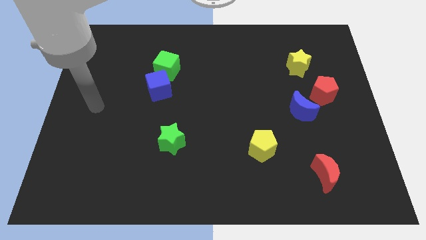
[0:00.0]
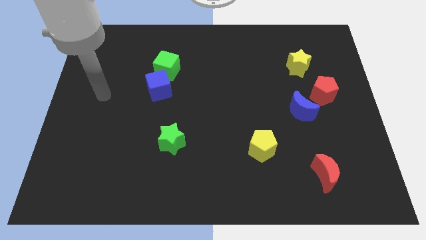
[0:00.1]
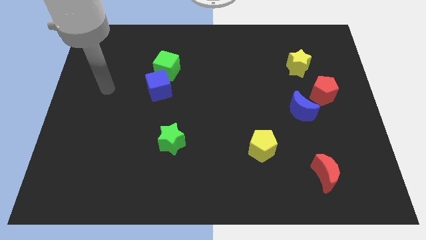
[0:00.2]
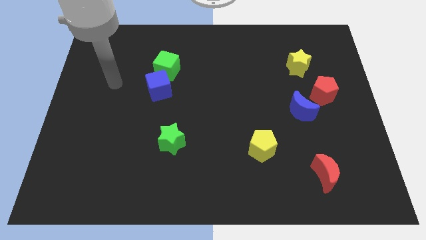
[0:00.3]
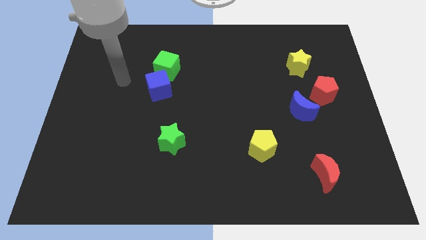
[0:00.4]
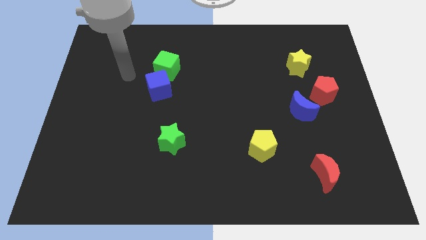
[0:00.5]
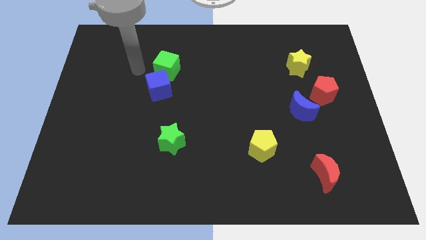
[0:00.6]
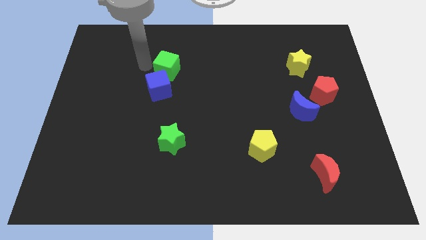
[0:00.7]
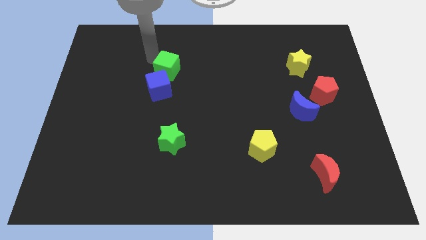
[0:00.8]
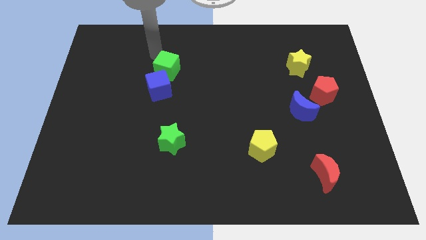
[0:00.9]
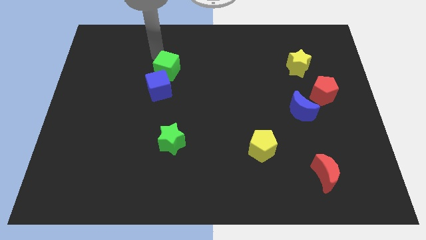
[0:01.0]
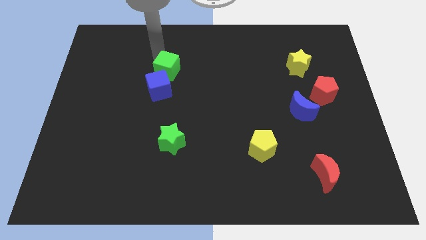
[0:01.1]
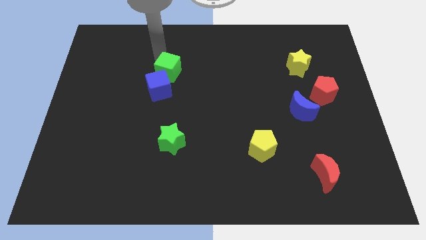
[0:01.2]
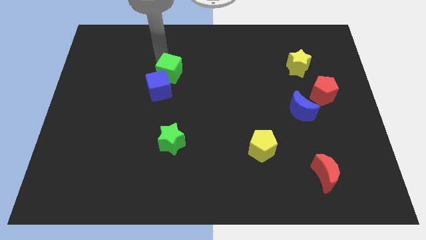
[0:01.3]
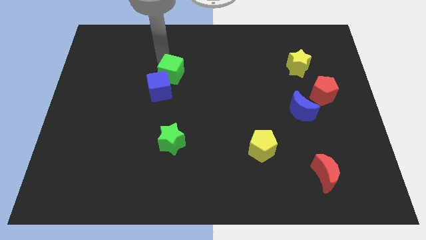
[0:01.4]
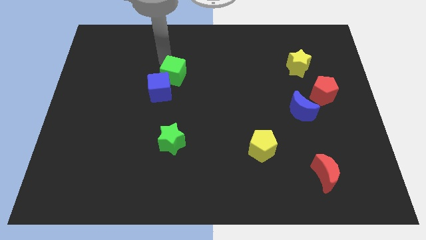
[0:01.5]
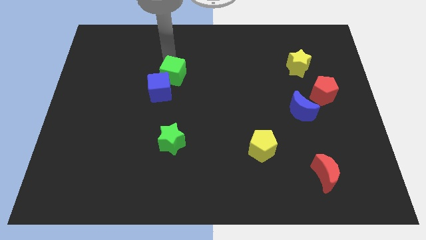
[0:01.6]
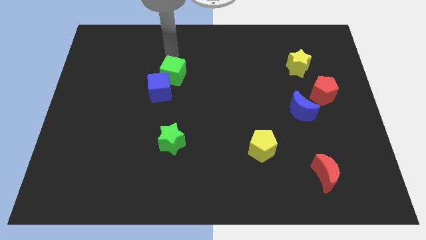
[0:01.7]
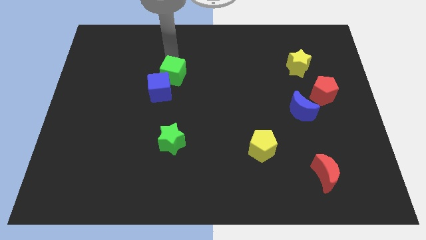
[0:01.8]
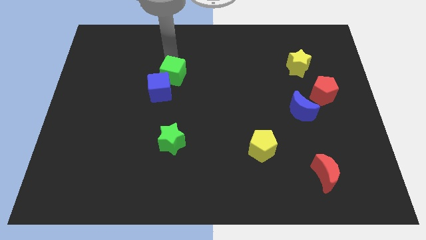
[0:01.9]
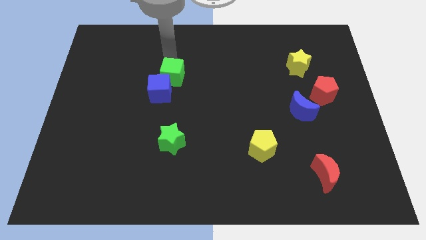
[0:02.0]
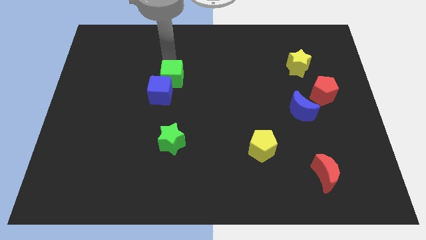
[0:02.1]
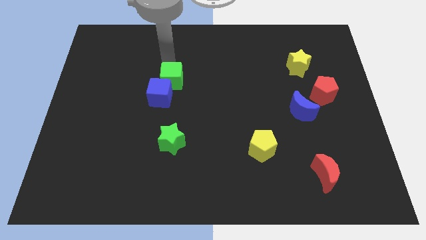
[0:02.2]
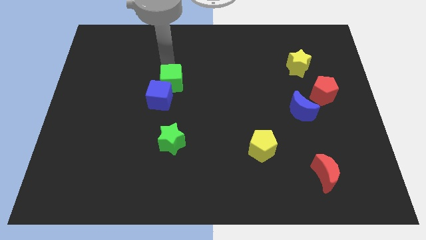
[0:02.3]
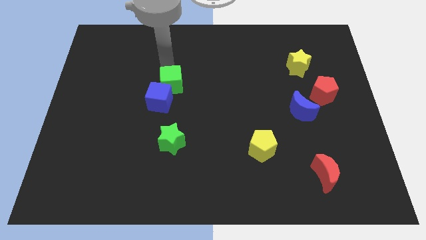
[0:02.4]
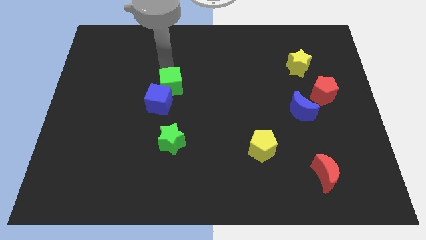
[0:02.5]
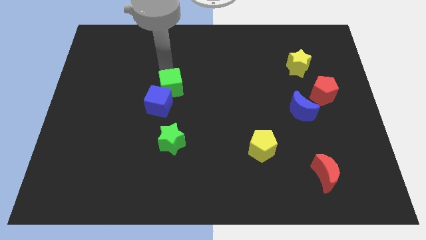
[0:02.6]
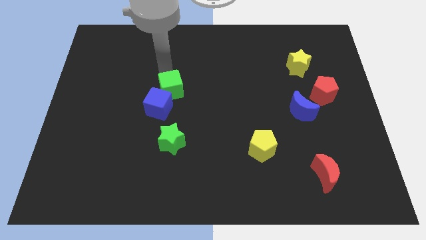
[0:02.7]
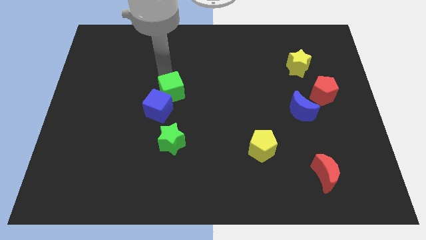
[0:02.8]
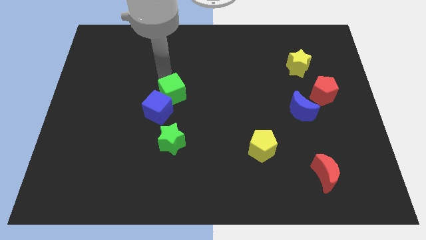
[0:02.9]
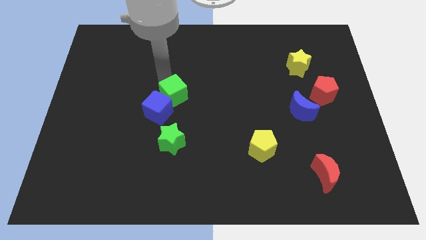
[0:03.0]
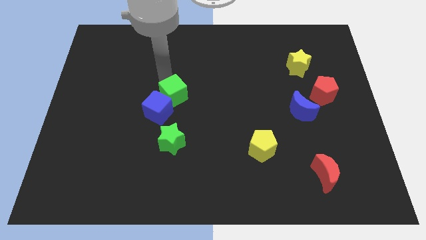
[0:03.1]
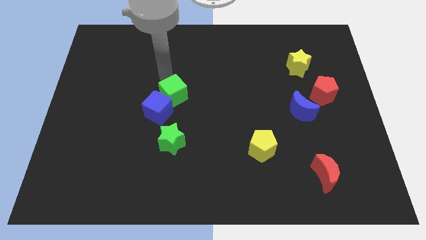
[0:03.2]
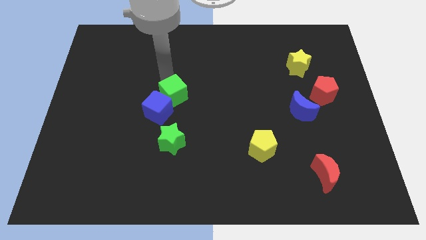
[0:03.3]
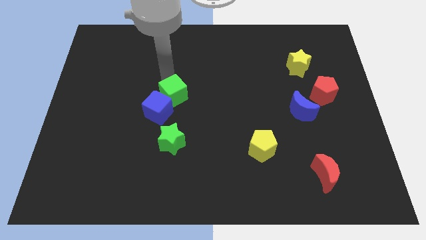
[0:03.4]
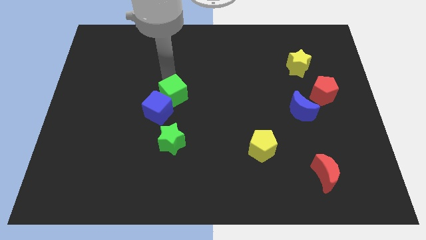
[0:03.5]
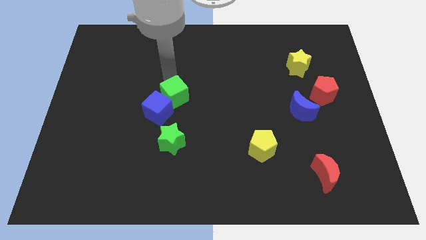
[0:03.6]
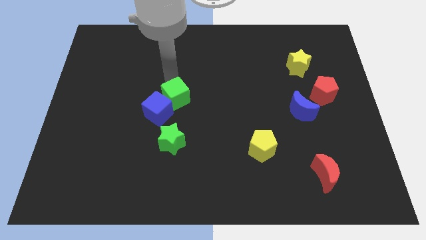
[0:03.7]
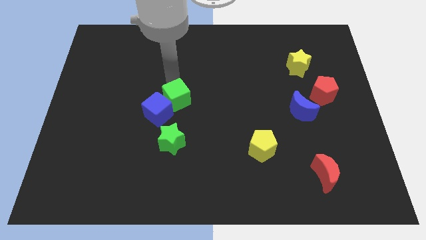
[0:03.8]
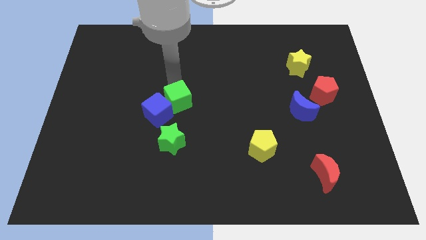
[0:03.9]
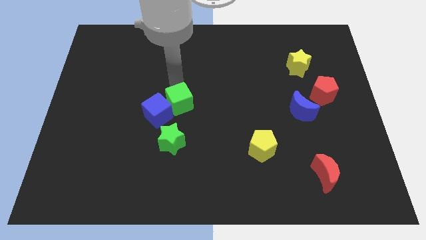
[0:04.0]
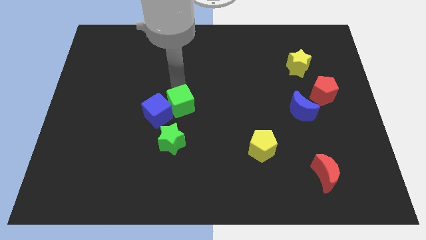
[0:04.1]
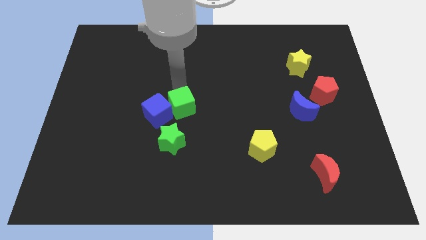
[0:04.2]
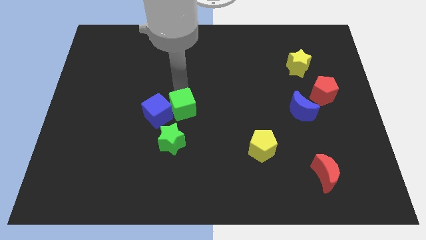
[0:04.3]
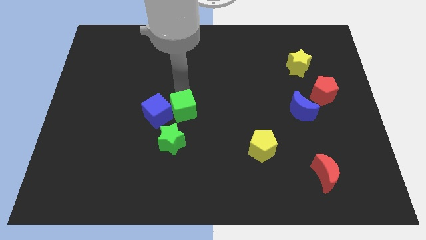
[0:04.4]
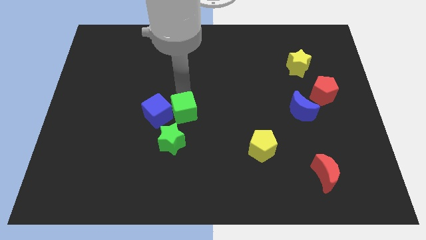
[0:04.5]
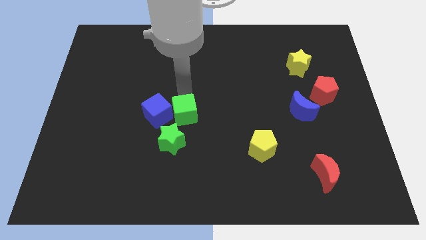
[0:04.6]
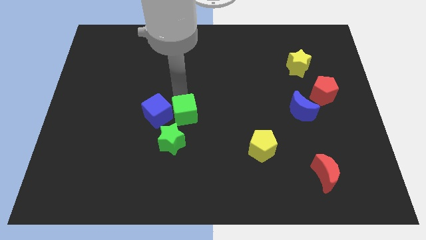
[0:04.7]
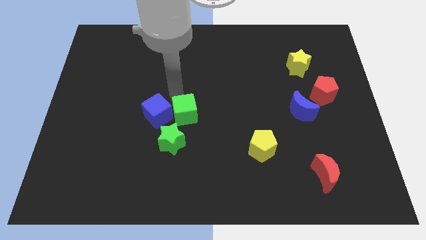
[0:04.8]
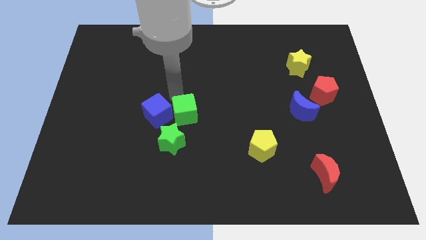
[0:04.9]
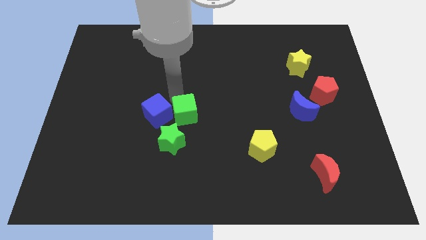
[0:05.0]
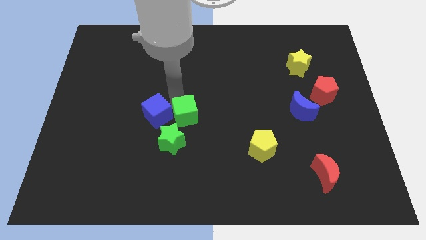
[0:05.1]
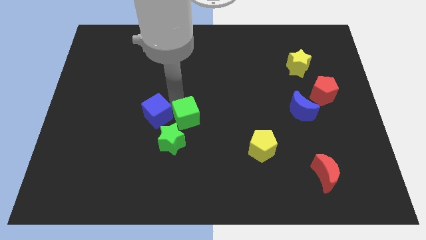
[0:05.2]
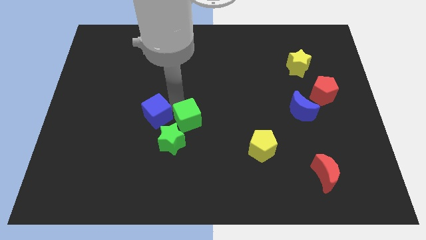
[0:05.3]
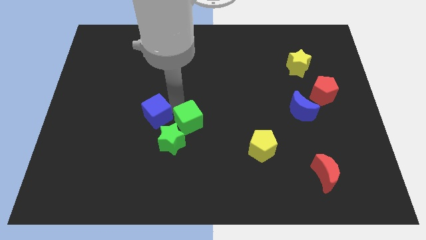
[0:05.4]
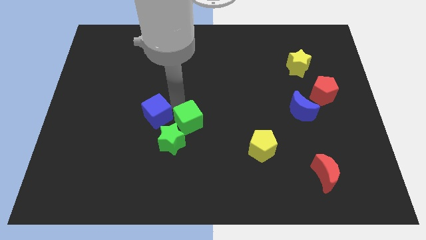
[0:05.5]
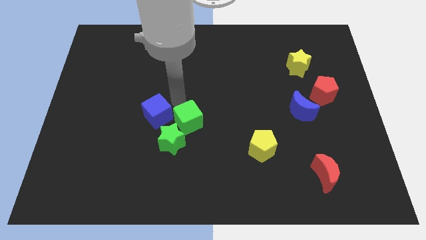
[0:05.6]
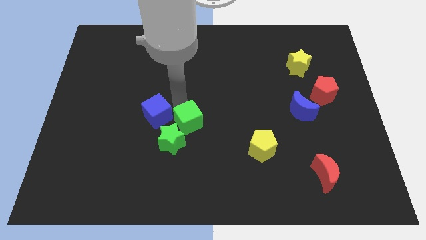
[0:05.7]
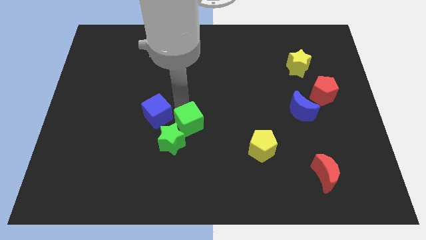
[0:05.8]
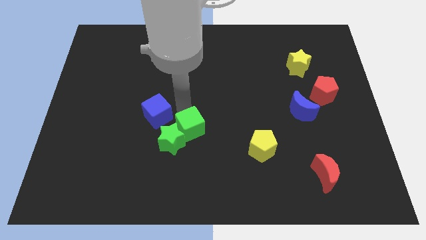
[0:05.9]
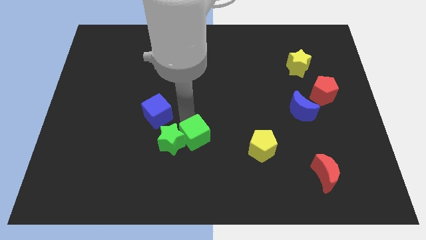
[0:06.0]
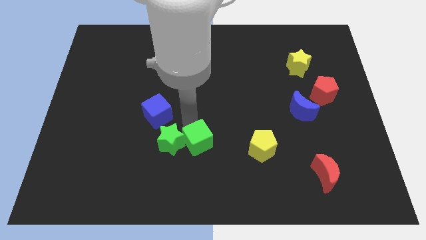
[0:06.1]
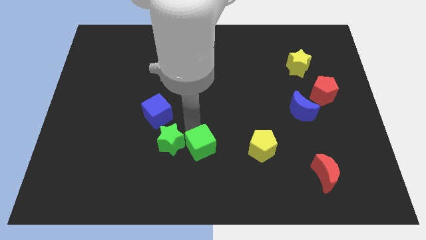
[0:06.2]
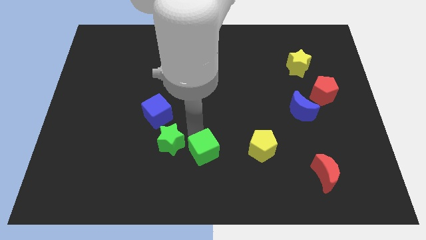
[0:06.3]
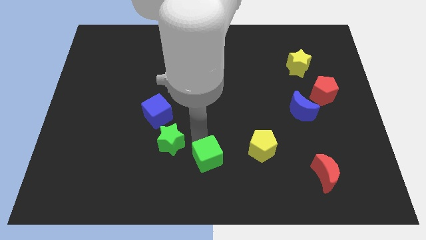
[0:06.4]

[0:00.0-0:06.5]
move the green cube to the bottom side
